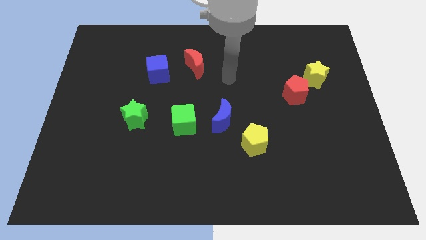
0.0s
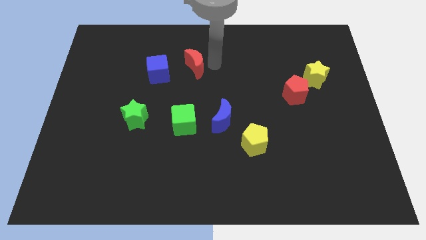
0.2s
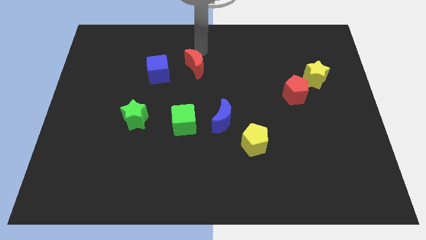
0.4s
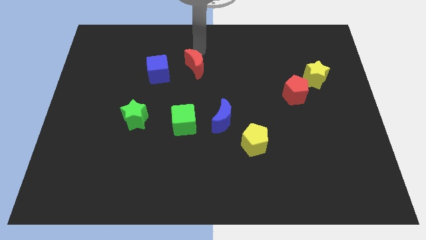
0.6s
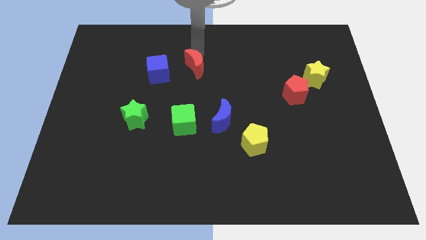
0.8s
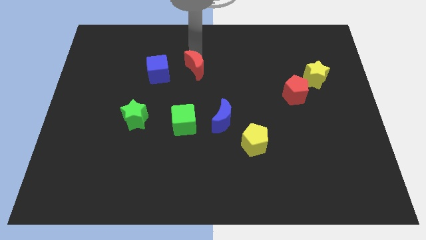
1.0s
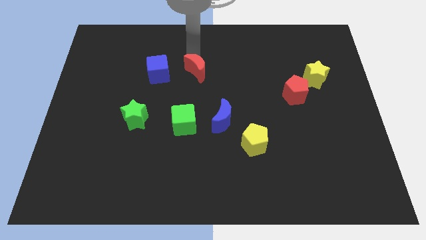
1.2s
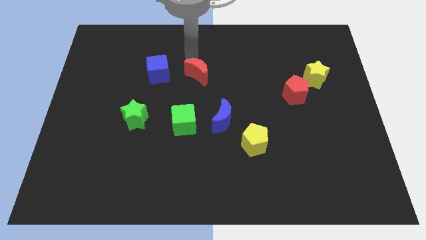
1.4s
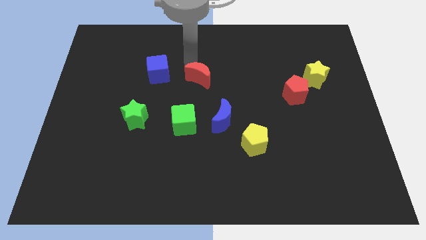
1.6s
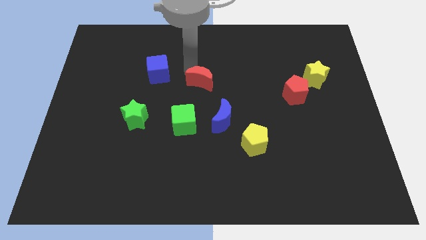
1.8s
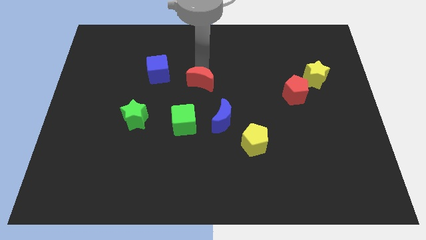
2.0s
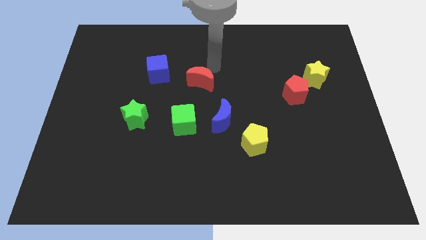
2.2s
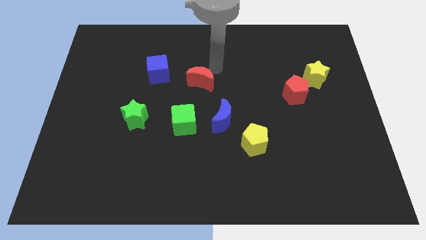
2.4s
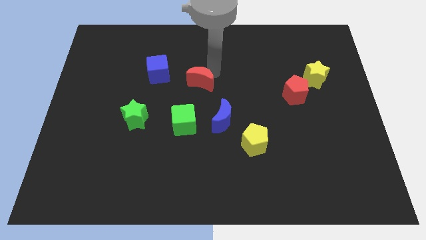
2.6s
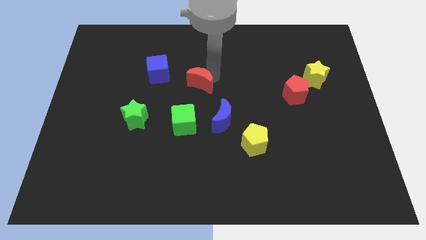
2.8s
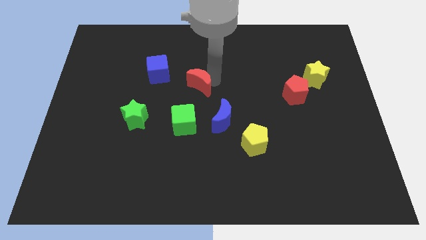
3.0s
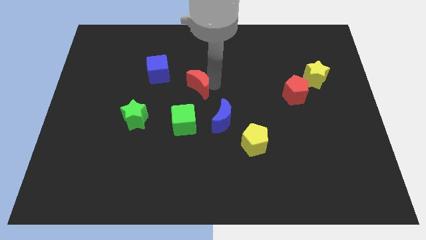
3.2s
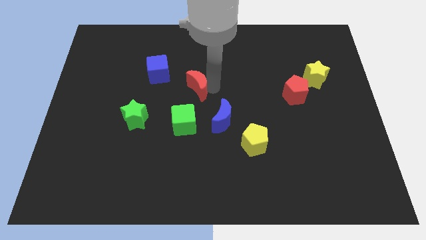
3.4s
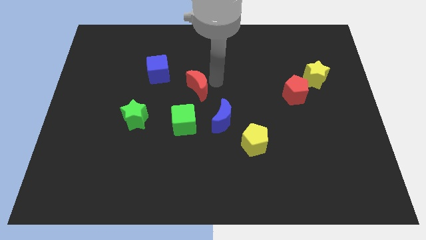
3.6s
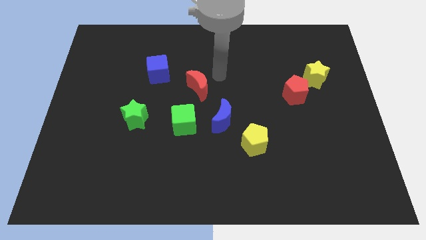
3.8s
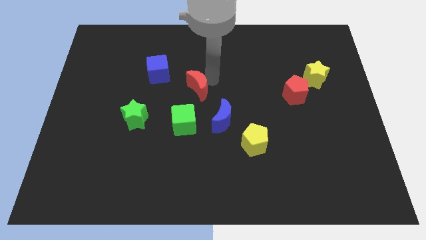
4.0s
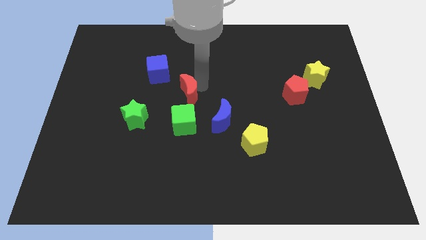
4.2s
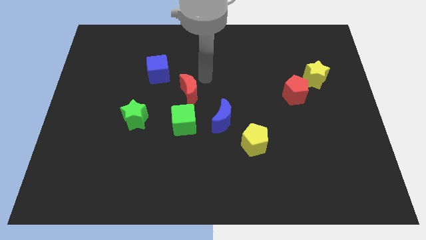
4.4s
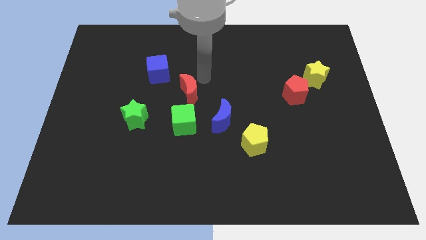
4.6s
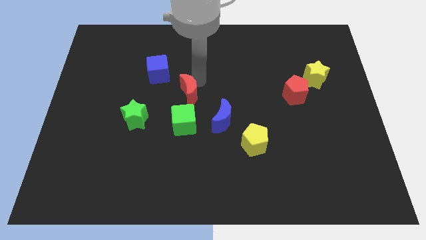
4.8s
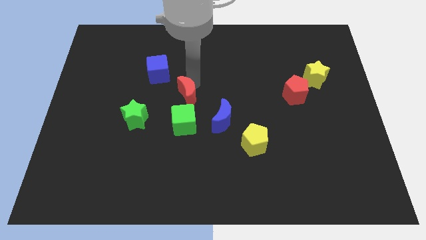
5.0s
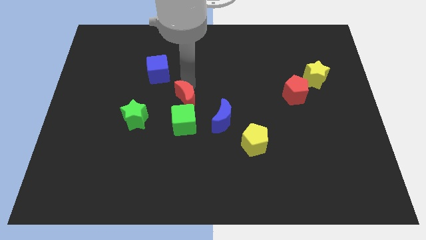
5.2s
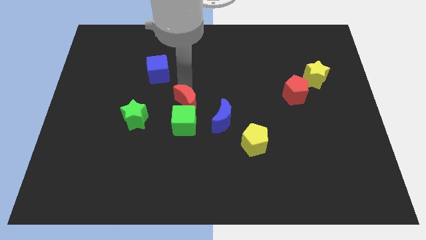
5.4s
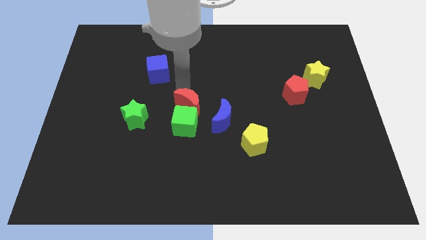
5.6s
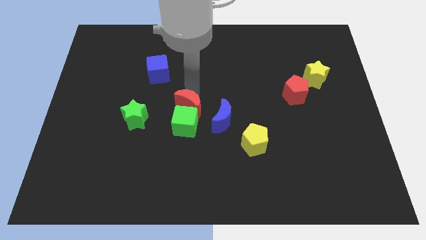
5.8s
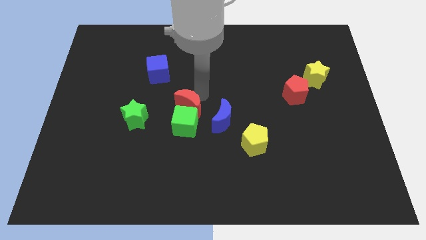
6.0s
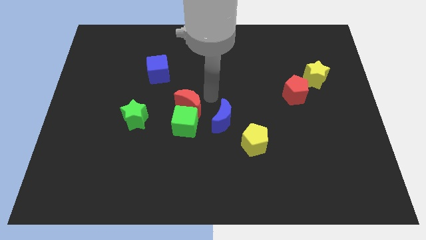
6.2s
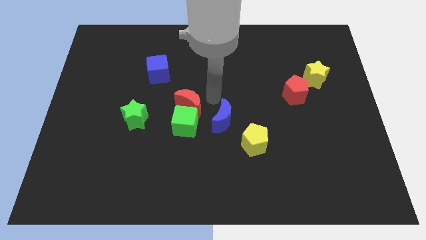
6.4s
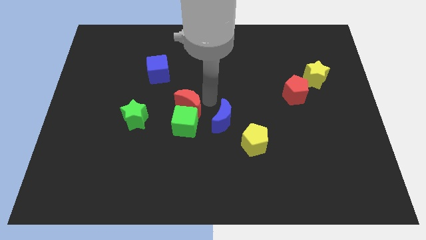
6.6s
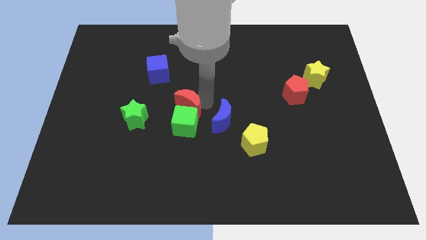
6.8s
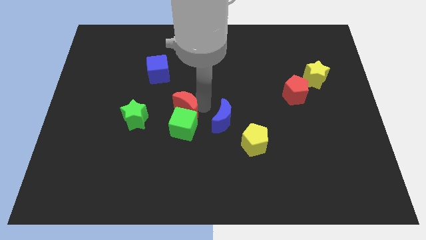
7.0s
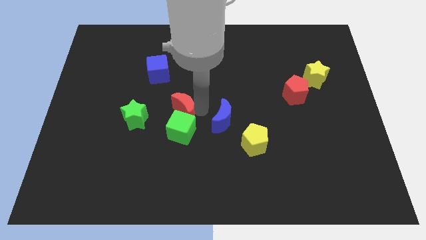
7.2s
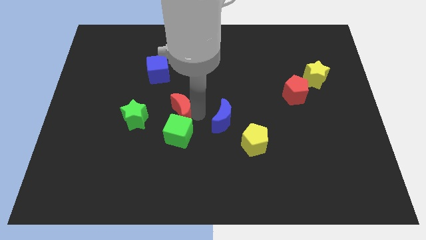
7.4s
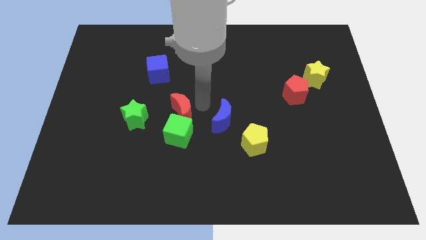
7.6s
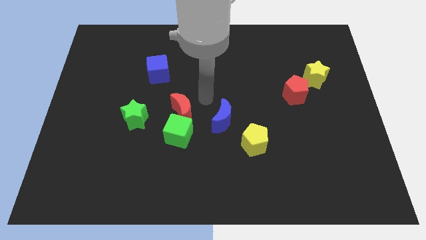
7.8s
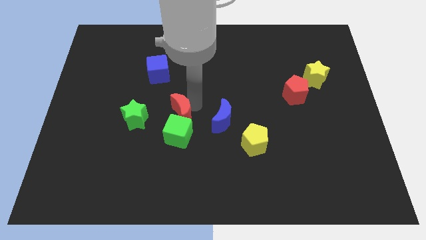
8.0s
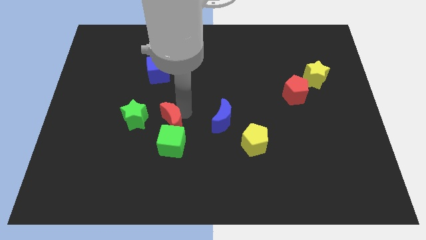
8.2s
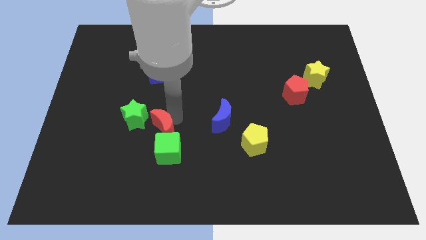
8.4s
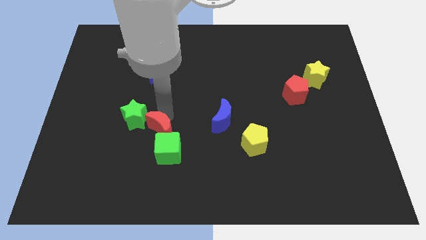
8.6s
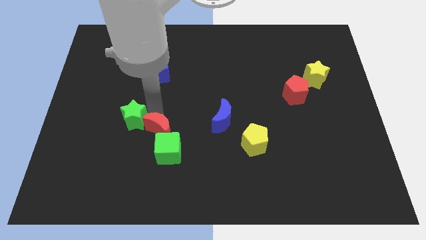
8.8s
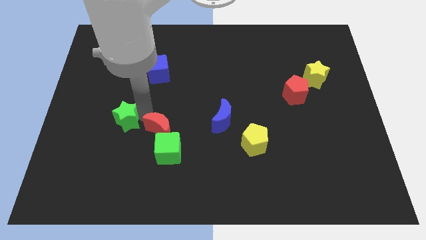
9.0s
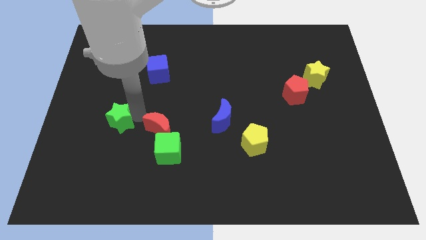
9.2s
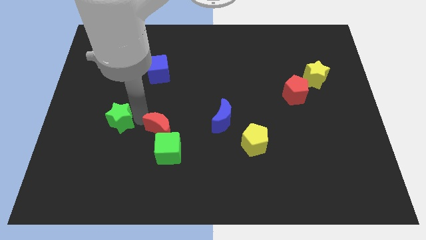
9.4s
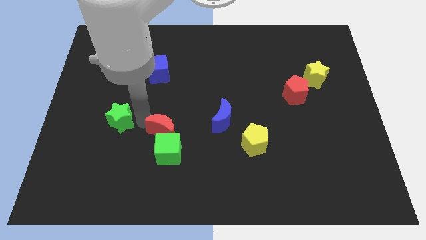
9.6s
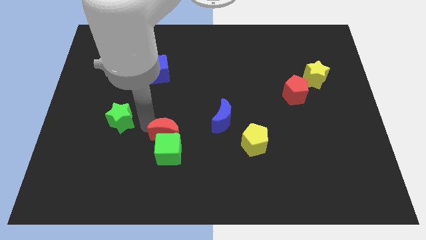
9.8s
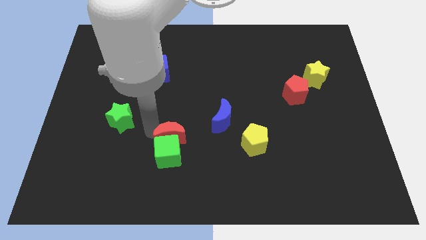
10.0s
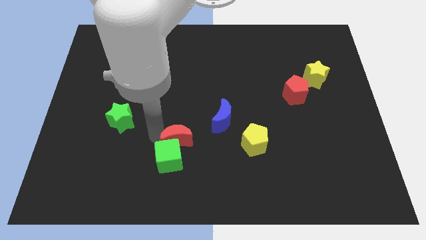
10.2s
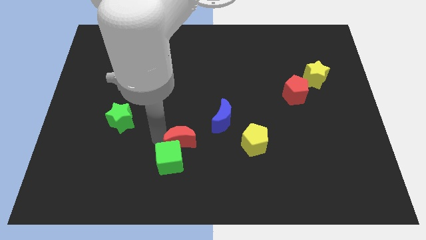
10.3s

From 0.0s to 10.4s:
move the red moon to the left side of the yellow pentagon

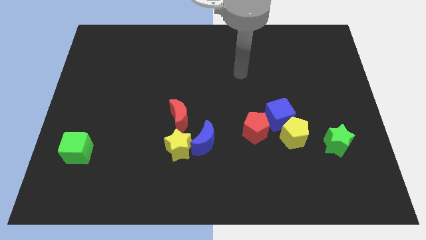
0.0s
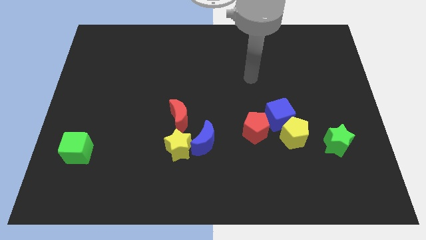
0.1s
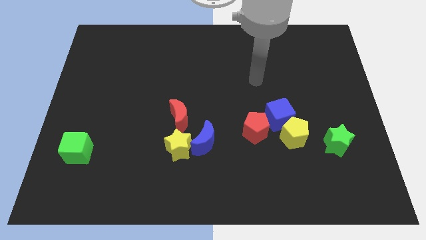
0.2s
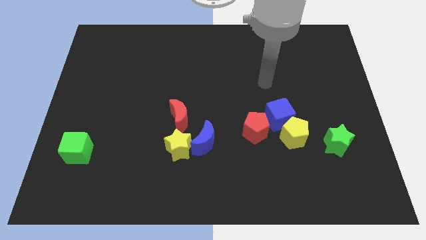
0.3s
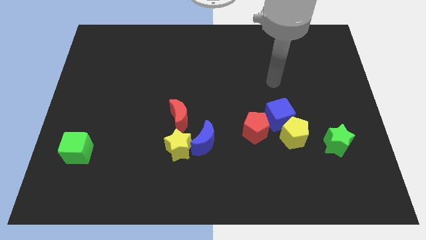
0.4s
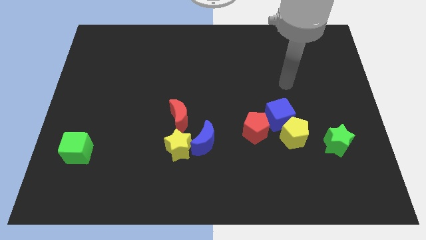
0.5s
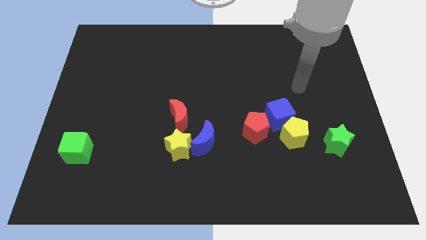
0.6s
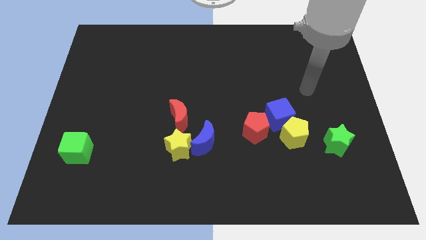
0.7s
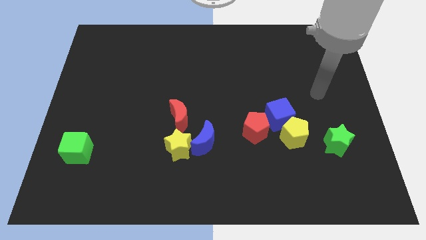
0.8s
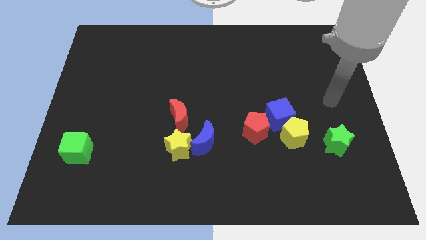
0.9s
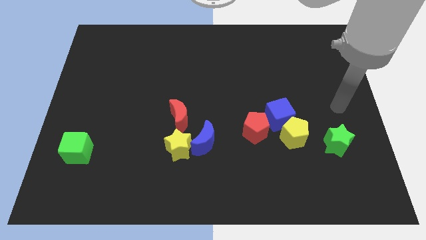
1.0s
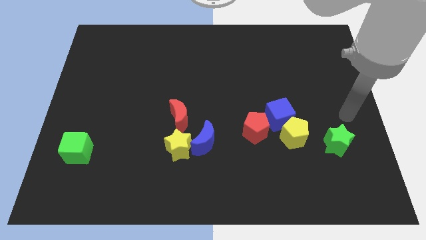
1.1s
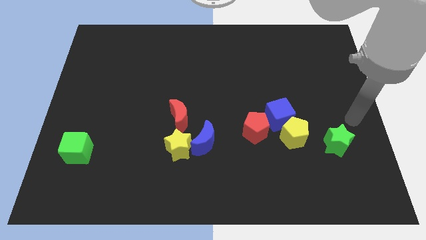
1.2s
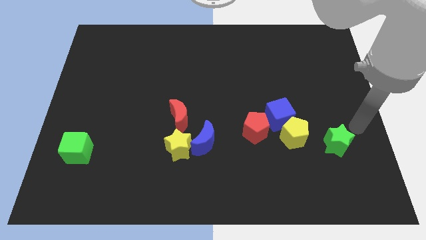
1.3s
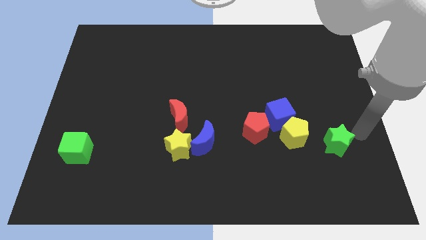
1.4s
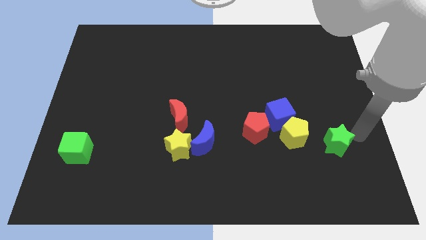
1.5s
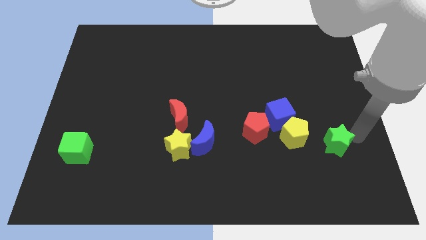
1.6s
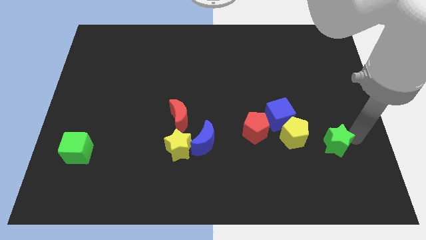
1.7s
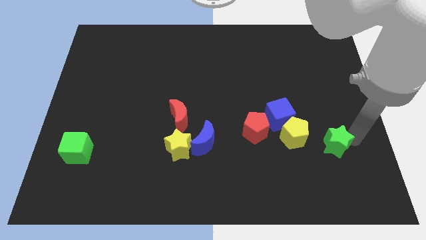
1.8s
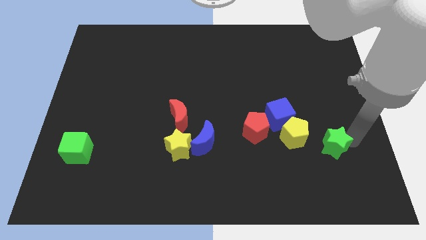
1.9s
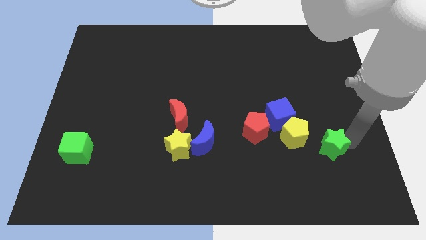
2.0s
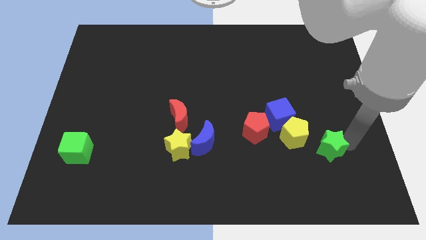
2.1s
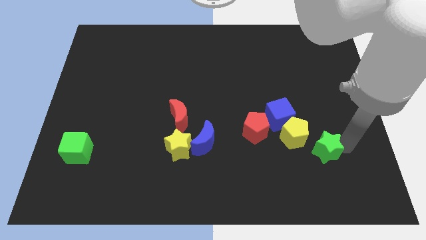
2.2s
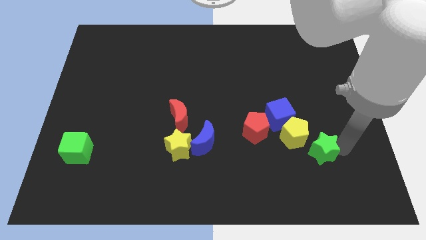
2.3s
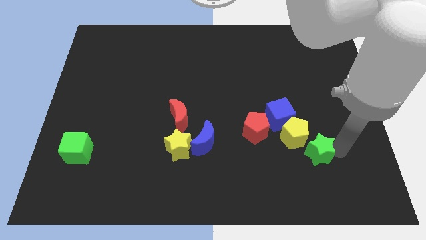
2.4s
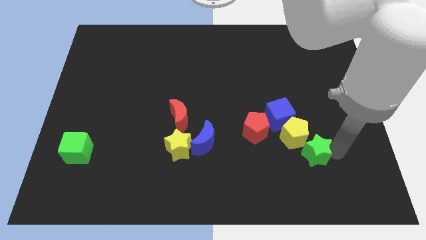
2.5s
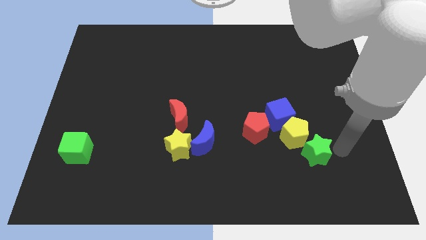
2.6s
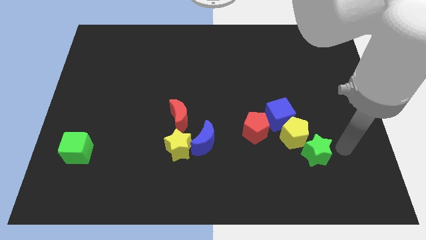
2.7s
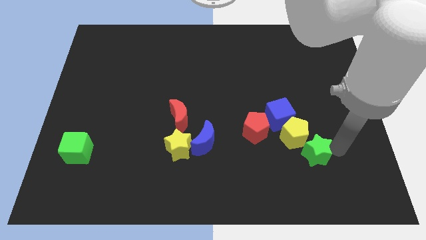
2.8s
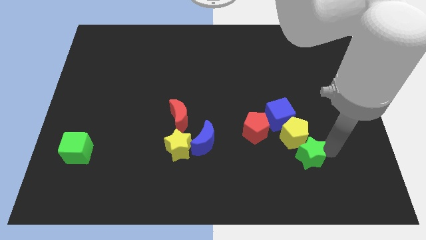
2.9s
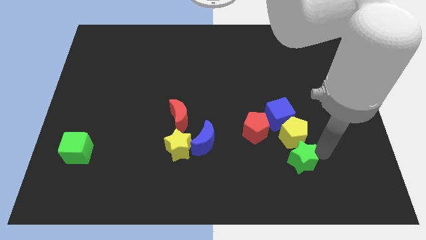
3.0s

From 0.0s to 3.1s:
slide the green star below the blue cube
